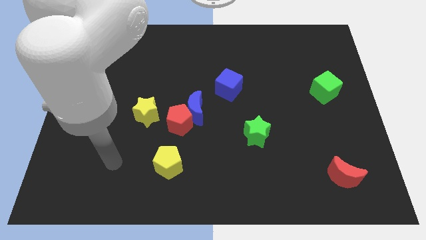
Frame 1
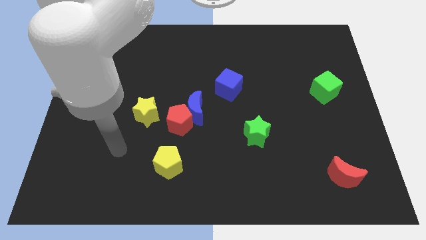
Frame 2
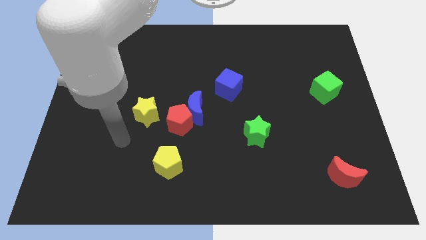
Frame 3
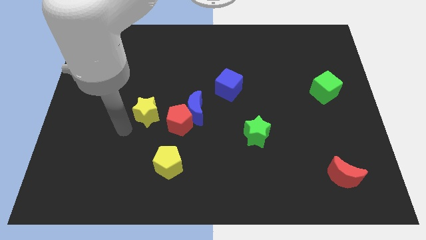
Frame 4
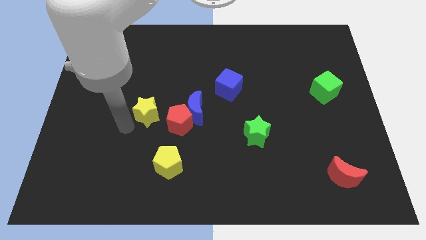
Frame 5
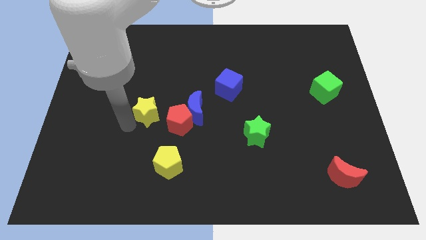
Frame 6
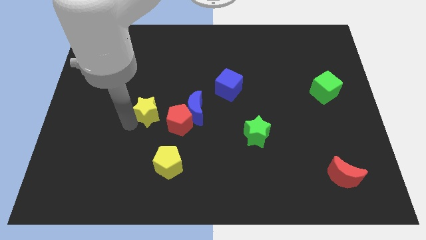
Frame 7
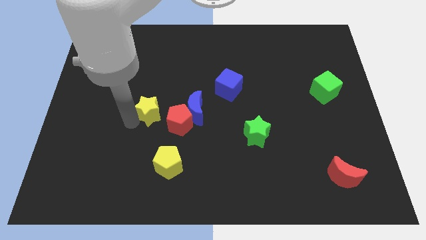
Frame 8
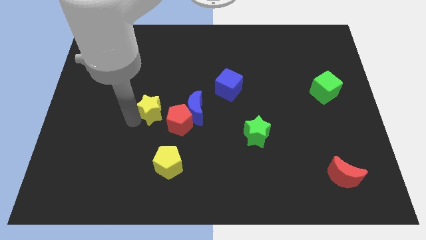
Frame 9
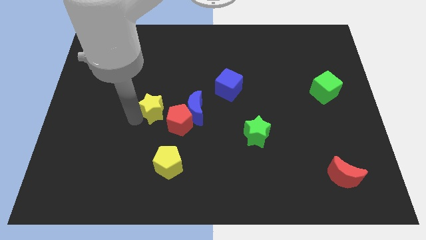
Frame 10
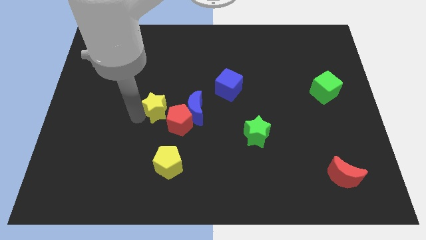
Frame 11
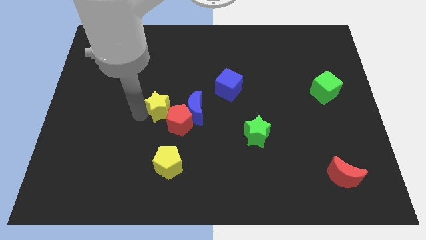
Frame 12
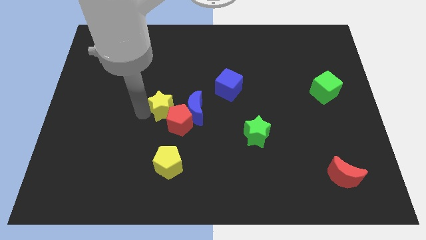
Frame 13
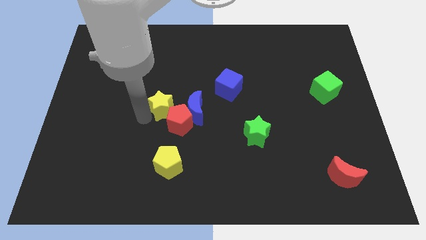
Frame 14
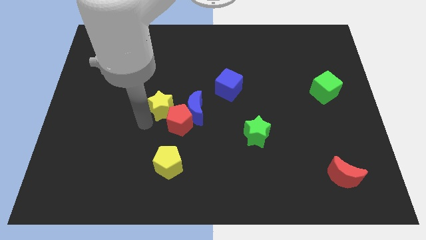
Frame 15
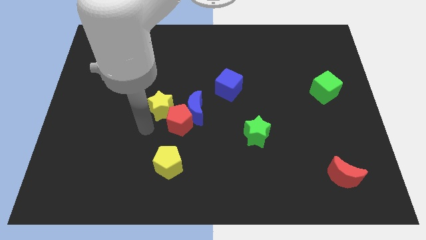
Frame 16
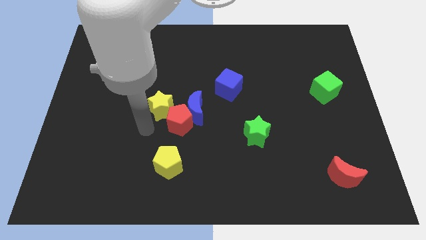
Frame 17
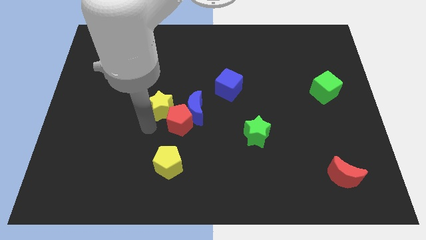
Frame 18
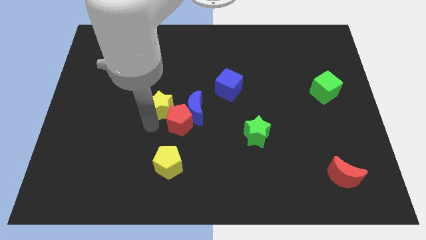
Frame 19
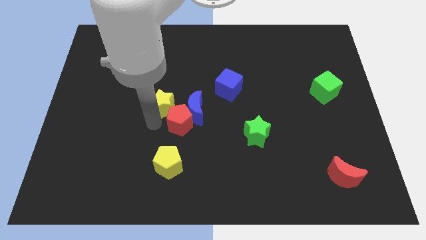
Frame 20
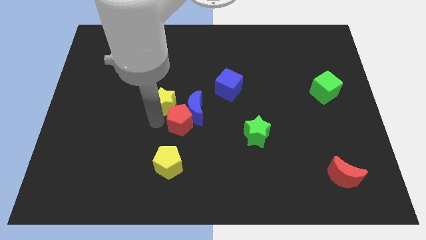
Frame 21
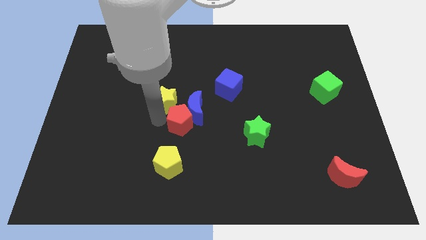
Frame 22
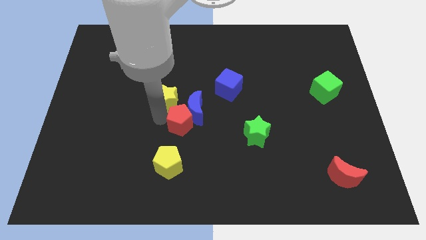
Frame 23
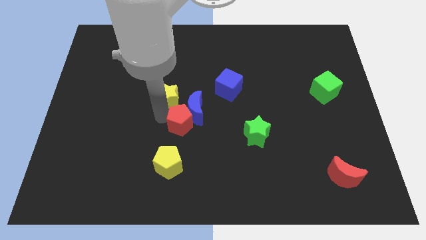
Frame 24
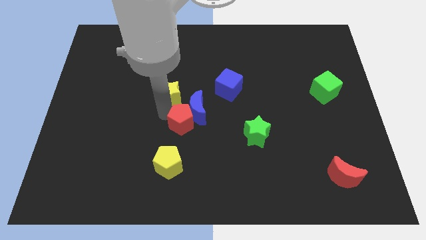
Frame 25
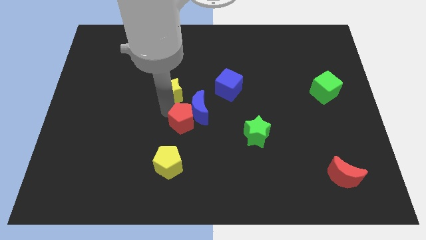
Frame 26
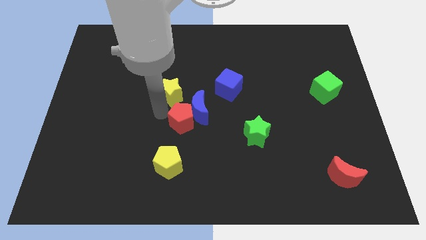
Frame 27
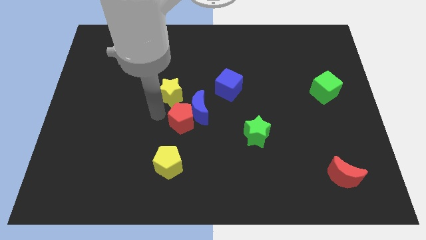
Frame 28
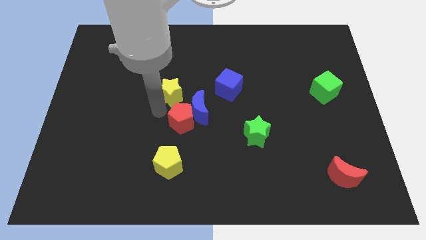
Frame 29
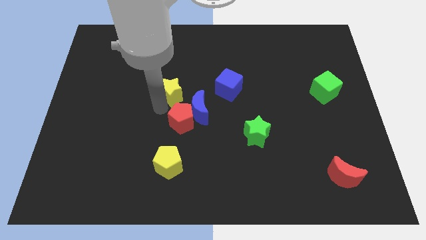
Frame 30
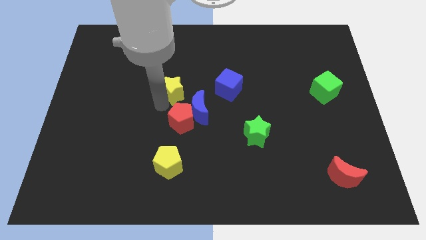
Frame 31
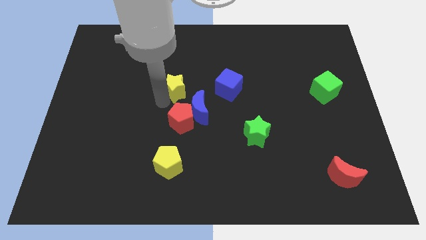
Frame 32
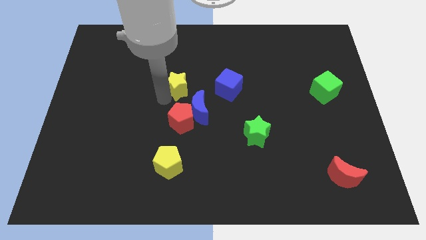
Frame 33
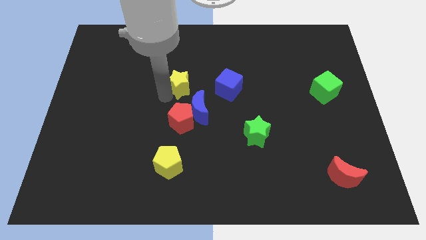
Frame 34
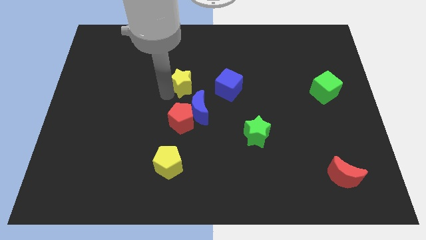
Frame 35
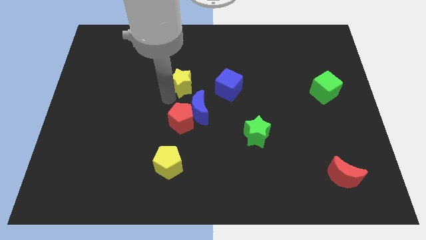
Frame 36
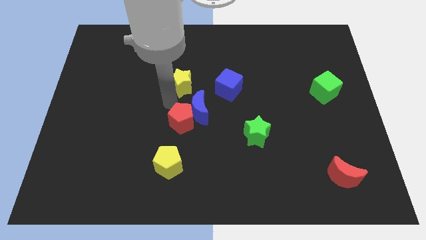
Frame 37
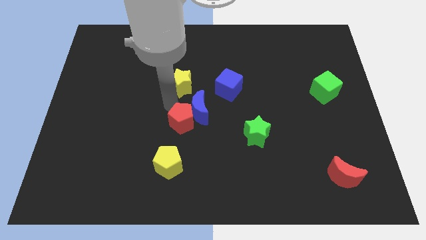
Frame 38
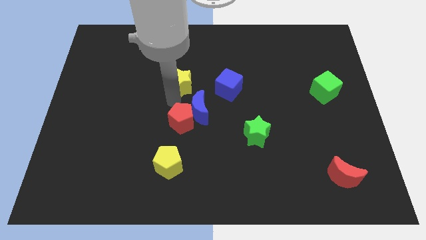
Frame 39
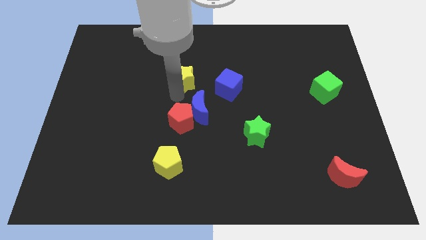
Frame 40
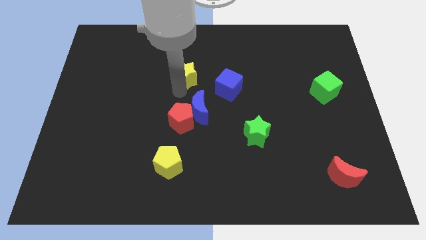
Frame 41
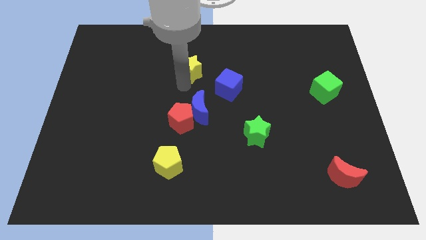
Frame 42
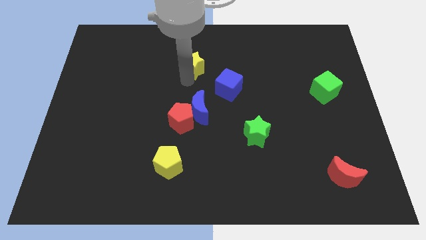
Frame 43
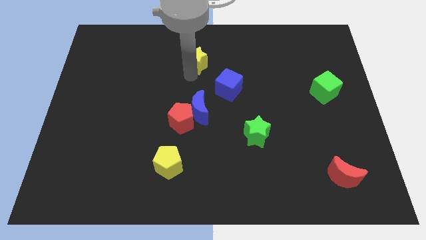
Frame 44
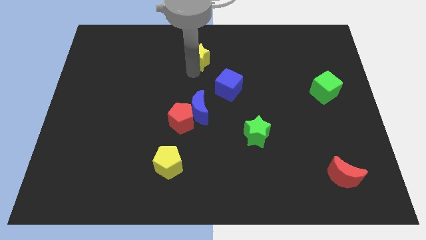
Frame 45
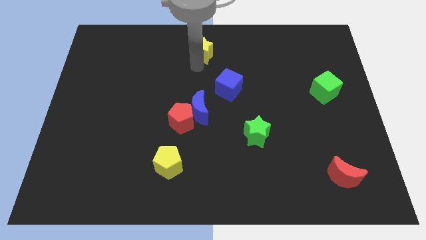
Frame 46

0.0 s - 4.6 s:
slide the yellow star to the towards your base

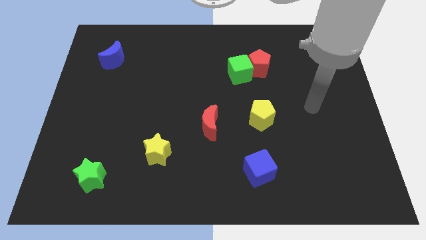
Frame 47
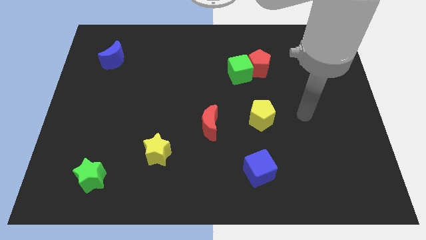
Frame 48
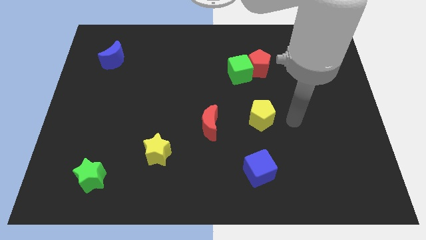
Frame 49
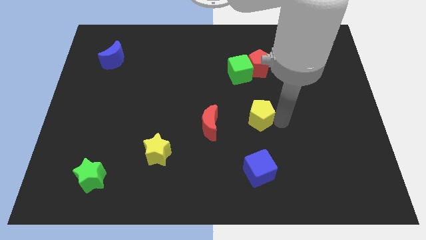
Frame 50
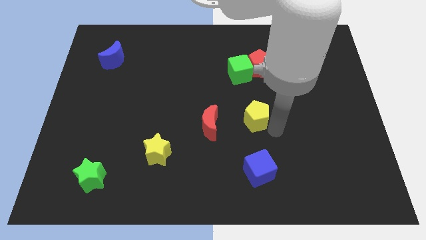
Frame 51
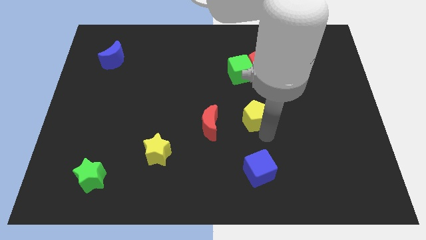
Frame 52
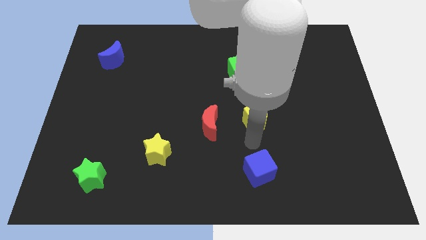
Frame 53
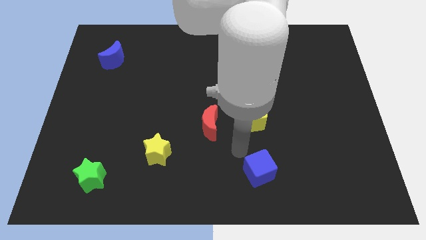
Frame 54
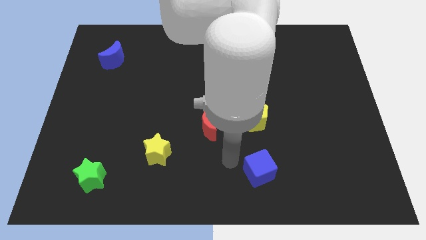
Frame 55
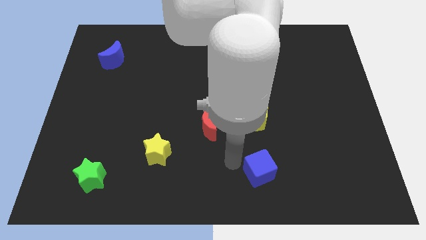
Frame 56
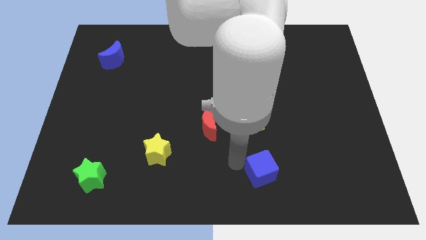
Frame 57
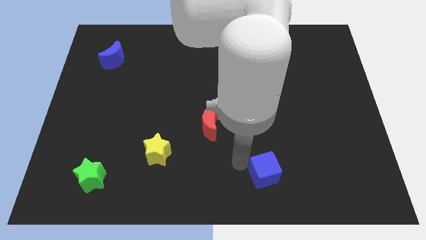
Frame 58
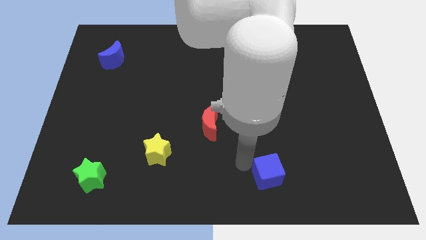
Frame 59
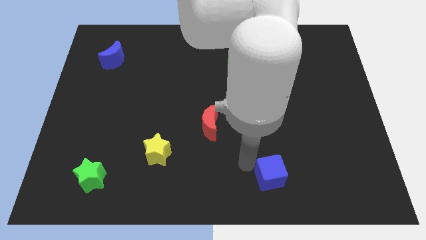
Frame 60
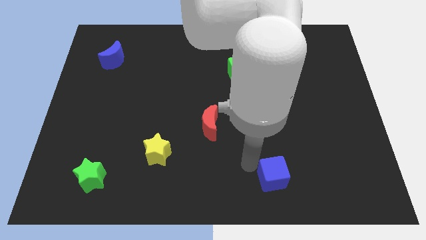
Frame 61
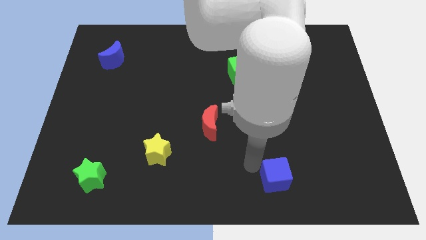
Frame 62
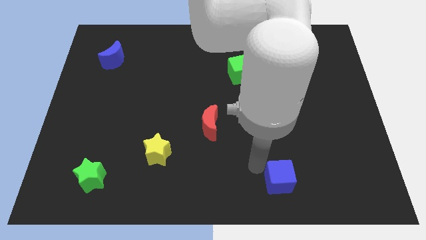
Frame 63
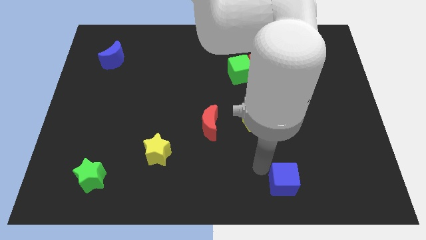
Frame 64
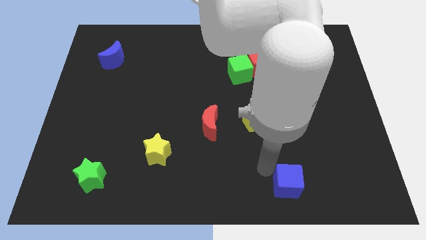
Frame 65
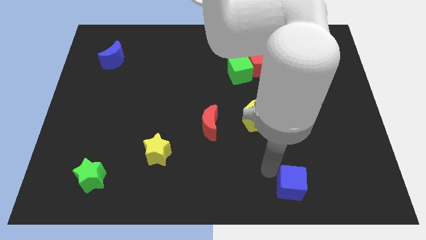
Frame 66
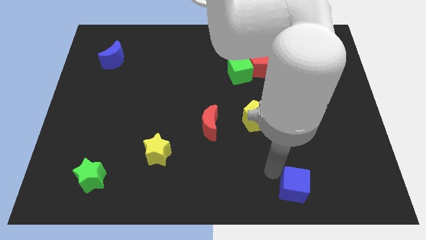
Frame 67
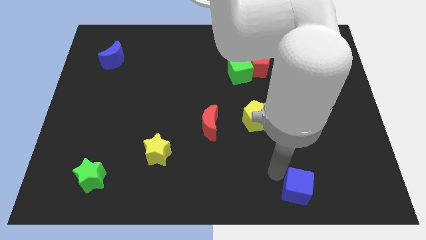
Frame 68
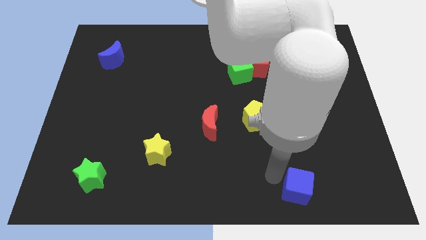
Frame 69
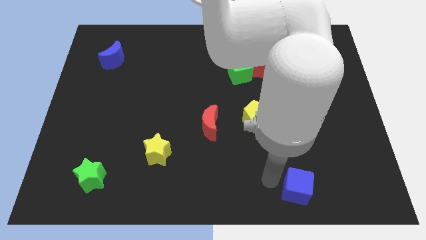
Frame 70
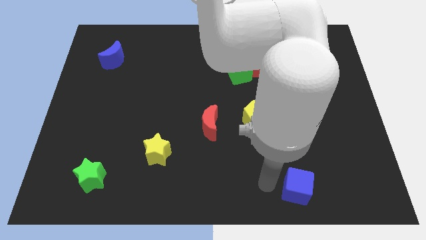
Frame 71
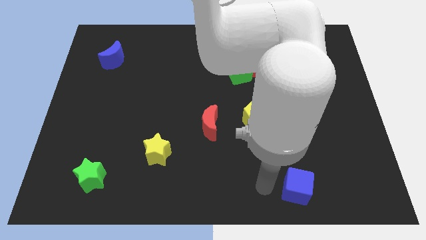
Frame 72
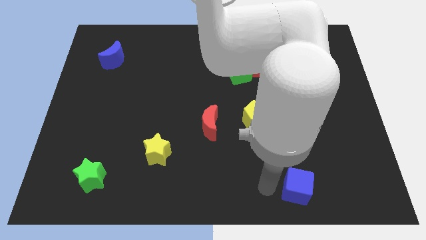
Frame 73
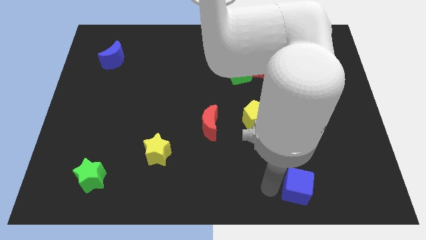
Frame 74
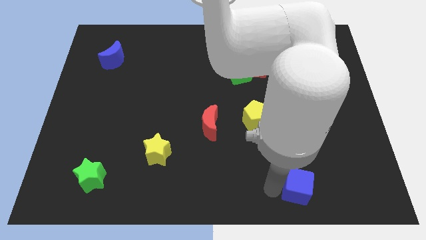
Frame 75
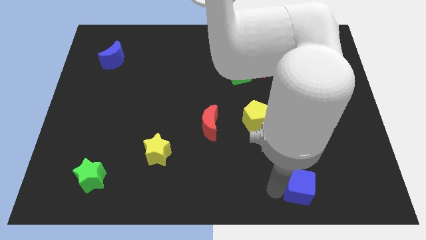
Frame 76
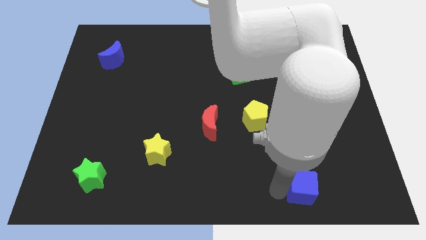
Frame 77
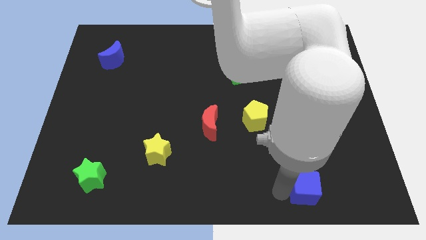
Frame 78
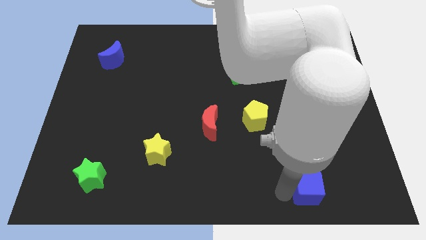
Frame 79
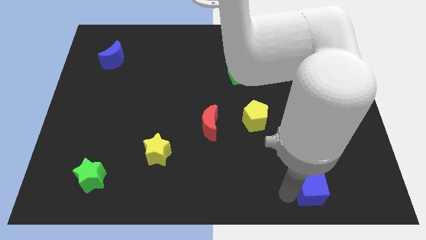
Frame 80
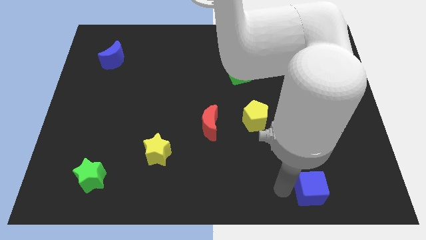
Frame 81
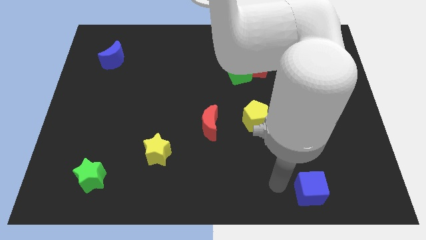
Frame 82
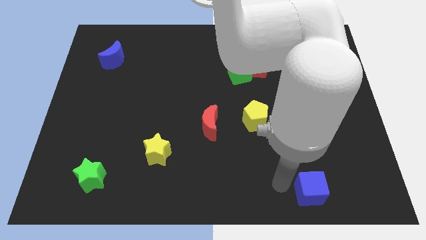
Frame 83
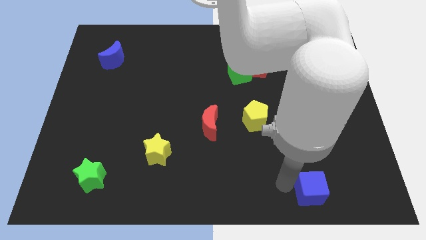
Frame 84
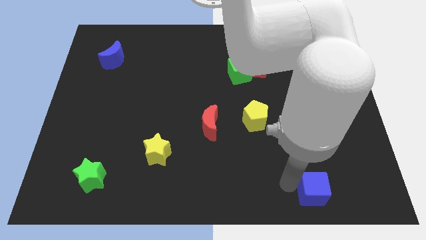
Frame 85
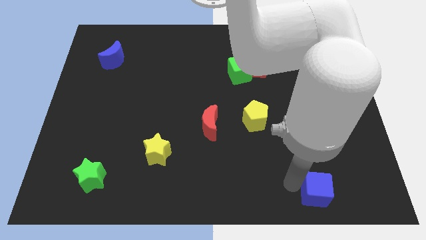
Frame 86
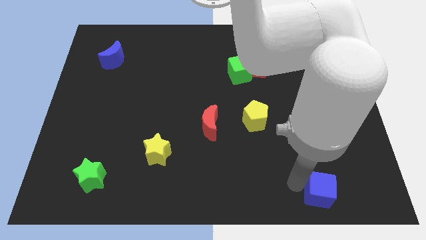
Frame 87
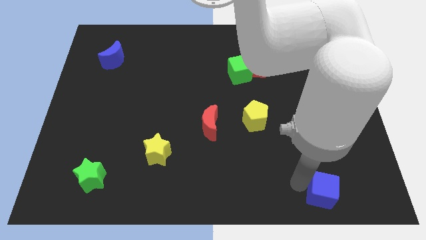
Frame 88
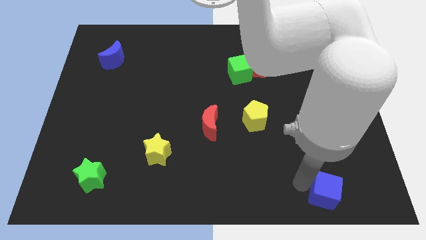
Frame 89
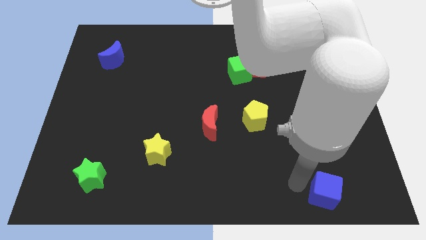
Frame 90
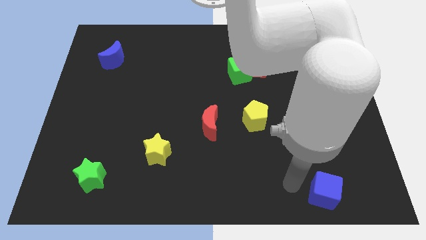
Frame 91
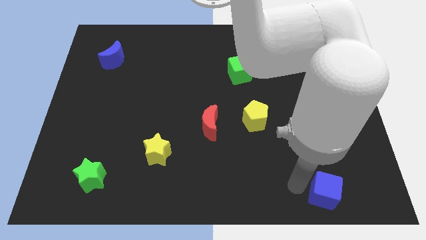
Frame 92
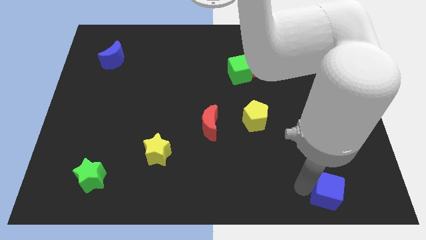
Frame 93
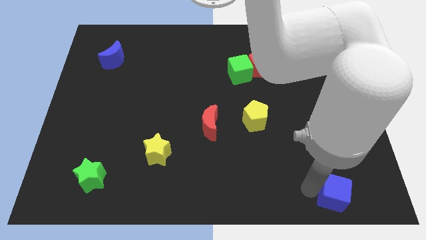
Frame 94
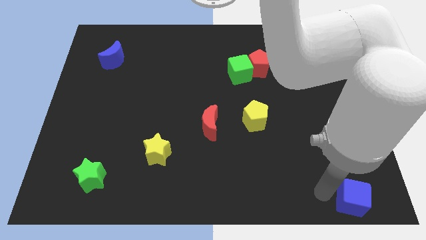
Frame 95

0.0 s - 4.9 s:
slide the blue cube to the bottom right corner
